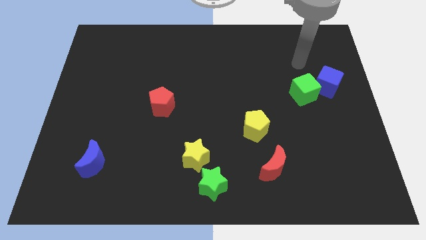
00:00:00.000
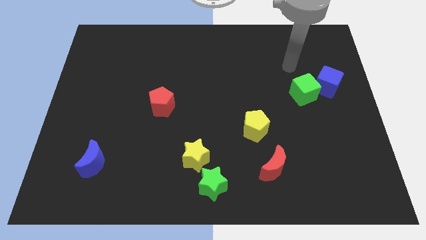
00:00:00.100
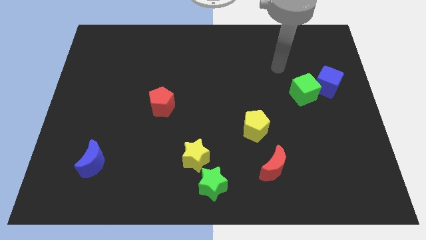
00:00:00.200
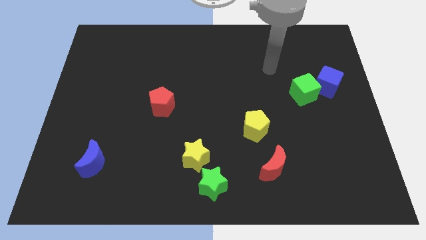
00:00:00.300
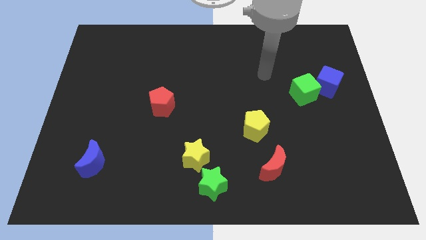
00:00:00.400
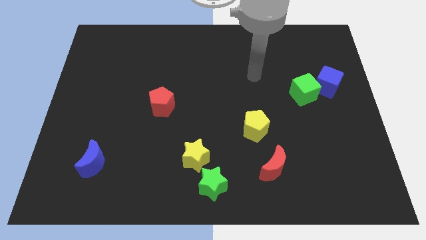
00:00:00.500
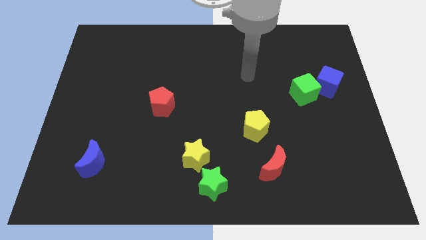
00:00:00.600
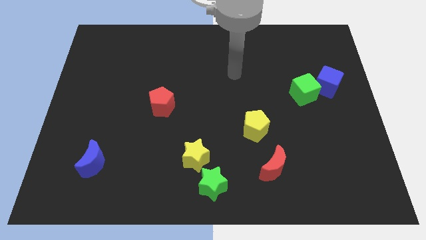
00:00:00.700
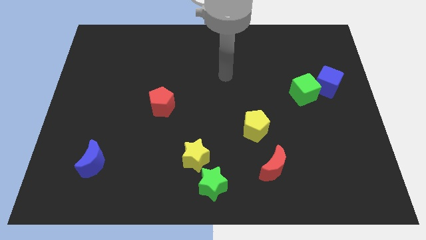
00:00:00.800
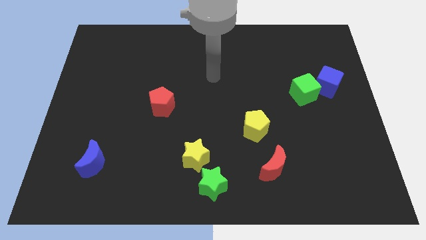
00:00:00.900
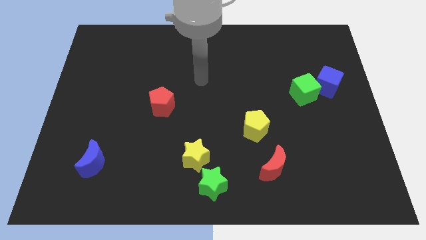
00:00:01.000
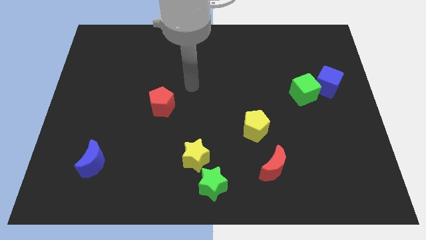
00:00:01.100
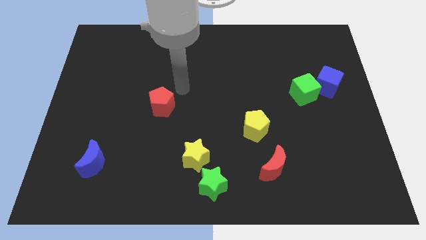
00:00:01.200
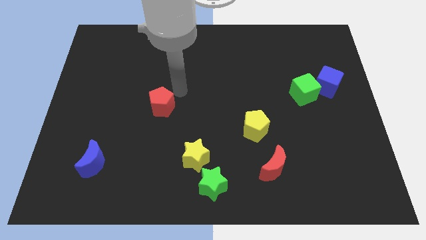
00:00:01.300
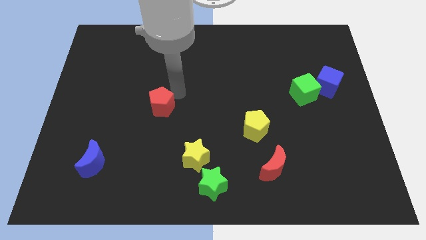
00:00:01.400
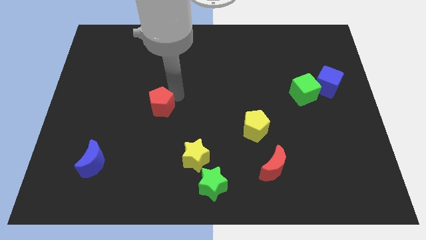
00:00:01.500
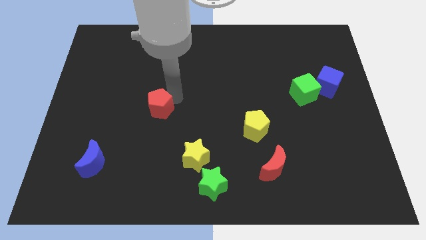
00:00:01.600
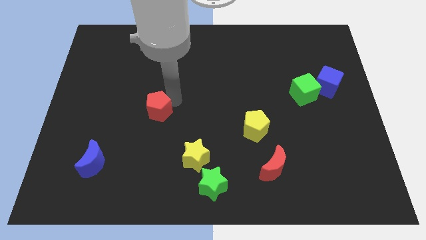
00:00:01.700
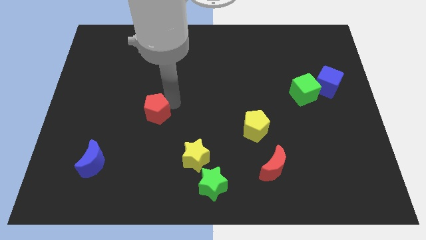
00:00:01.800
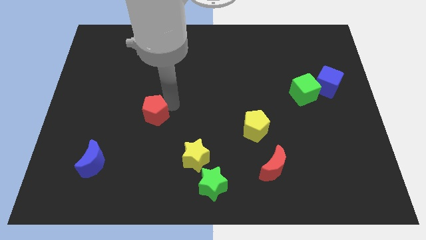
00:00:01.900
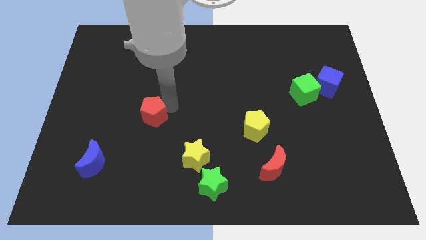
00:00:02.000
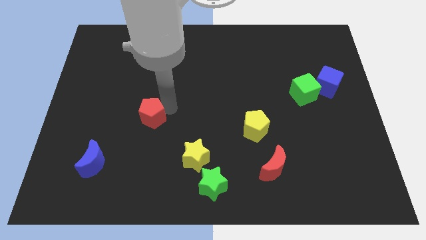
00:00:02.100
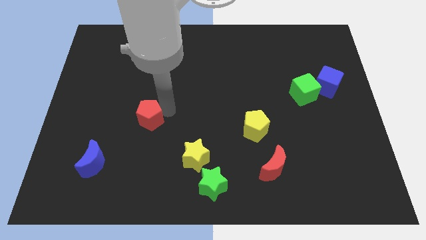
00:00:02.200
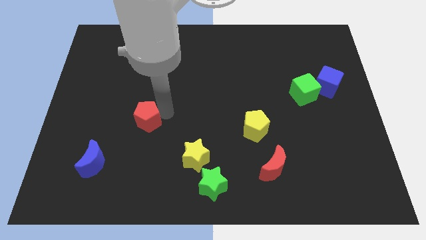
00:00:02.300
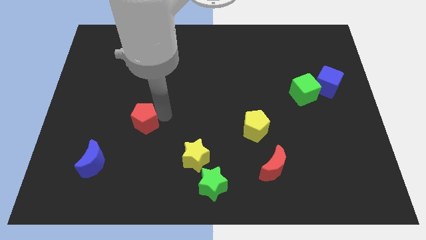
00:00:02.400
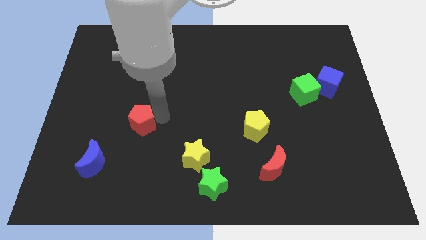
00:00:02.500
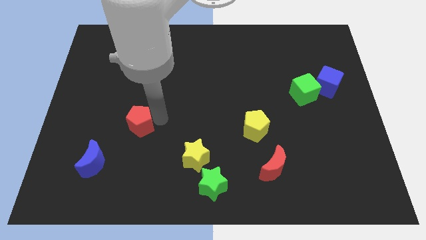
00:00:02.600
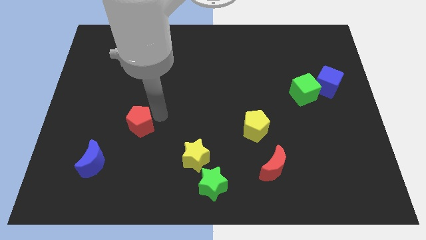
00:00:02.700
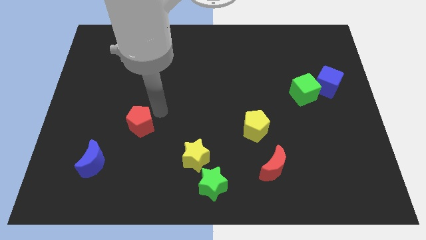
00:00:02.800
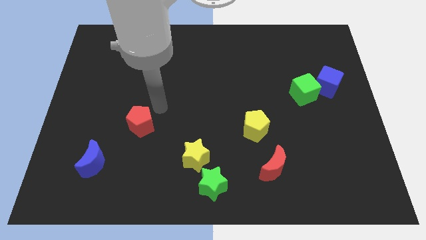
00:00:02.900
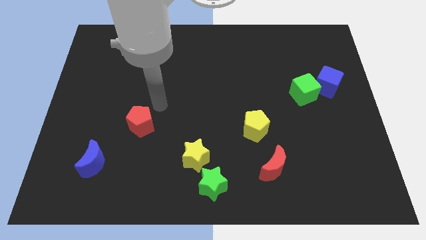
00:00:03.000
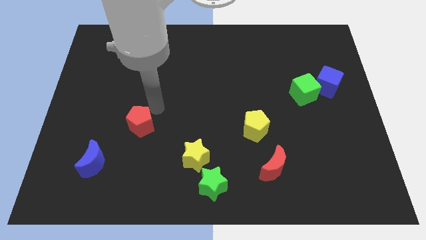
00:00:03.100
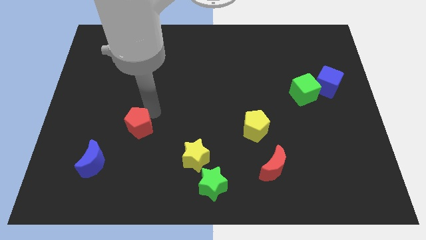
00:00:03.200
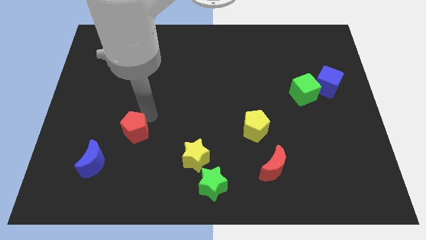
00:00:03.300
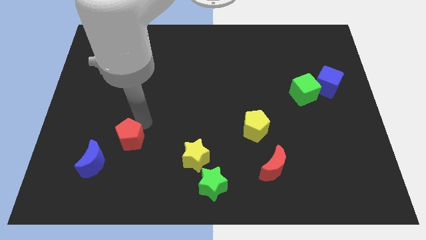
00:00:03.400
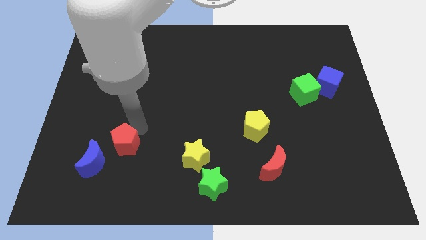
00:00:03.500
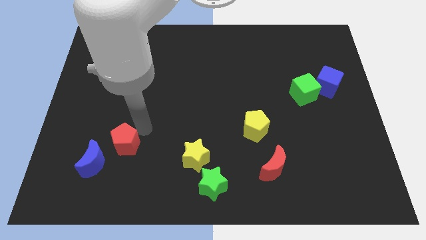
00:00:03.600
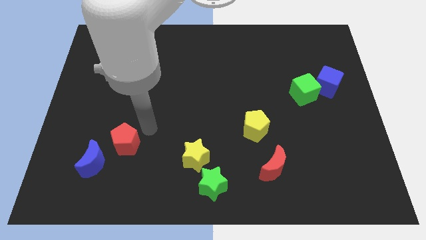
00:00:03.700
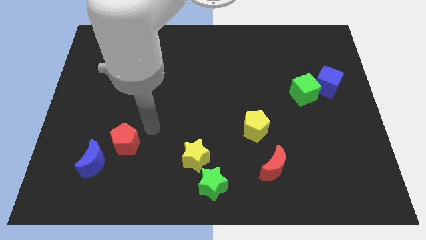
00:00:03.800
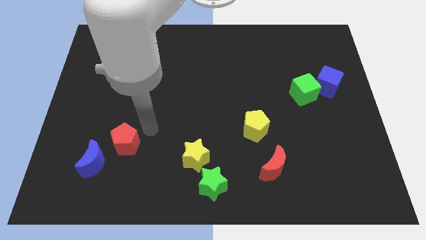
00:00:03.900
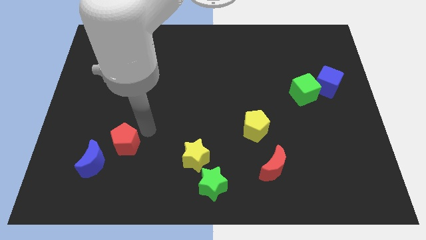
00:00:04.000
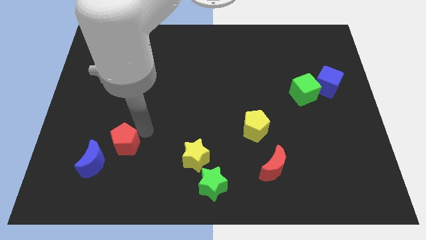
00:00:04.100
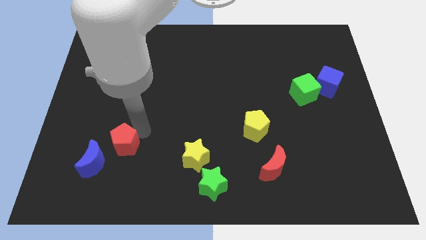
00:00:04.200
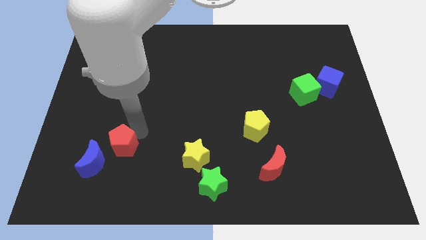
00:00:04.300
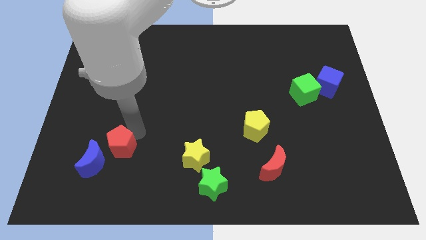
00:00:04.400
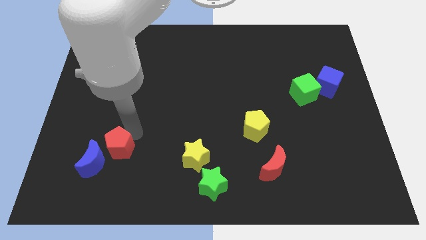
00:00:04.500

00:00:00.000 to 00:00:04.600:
put the red pentagon towards the blue moon

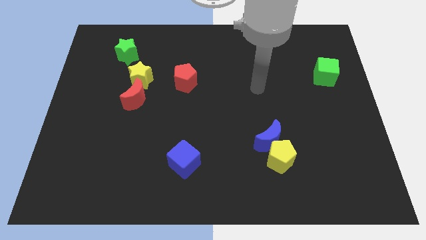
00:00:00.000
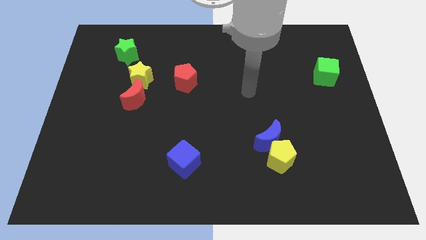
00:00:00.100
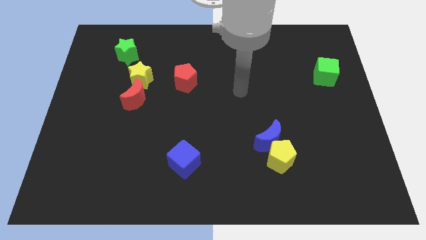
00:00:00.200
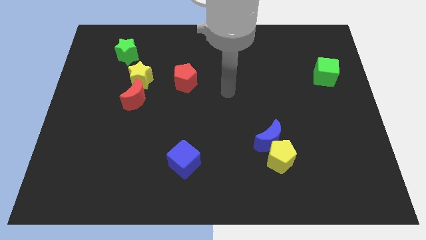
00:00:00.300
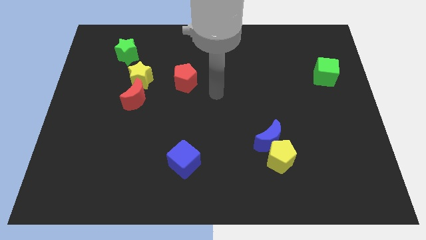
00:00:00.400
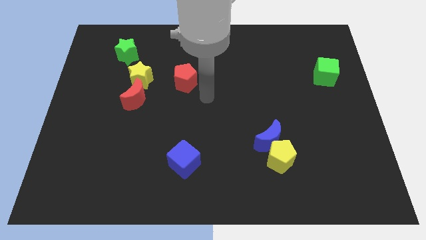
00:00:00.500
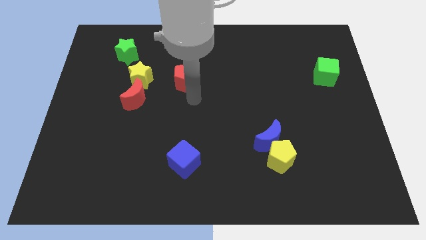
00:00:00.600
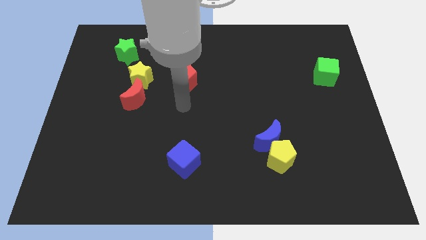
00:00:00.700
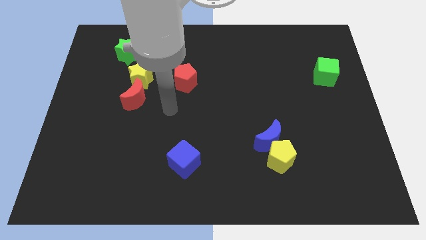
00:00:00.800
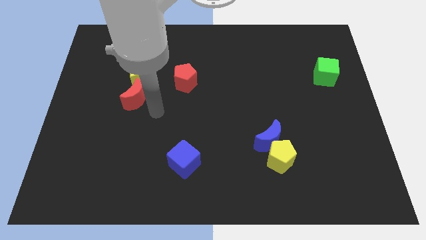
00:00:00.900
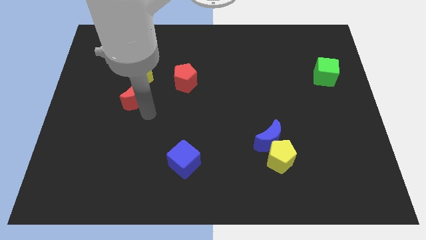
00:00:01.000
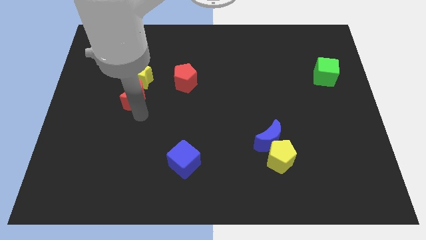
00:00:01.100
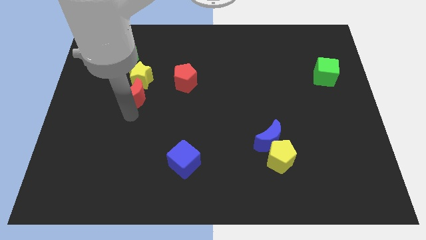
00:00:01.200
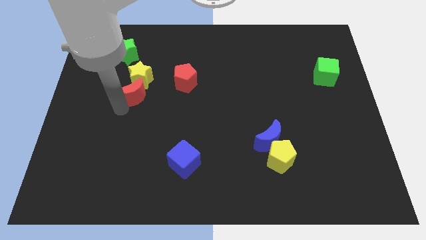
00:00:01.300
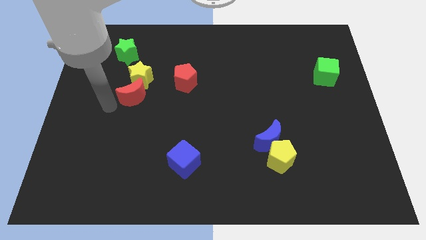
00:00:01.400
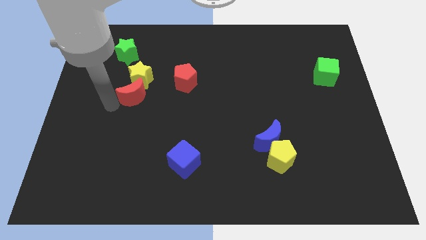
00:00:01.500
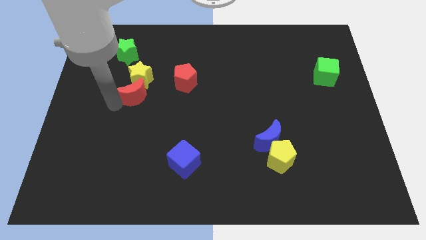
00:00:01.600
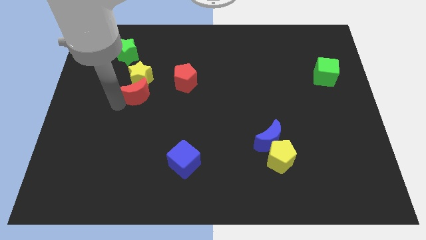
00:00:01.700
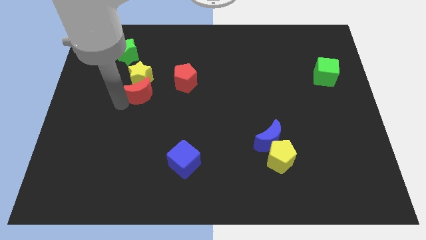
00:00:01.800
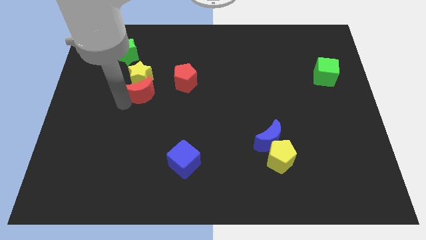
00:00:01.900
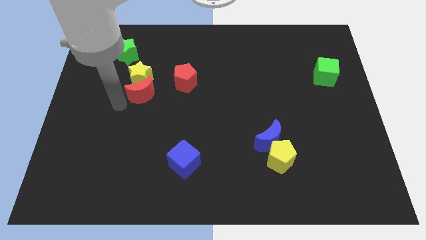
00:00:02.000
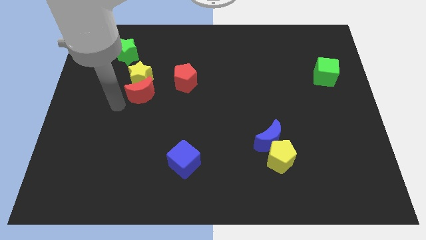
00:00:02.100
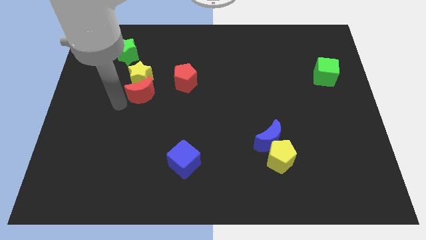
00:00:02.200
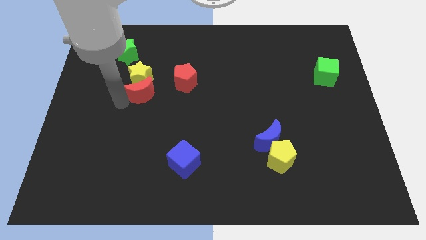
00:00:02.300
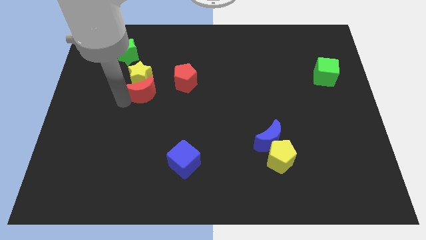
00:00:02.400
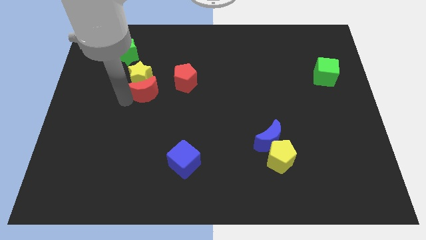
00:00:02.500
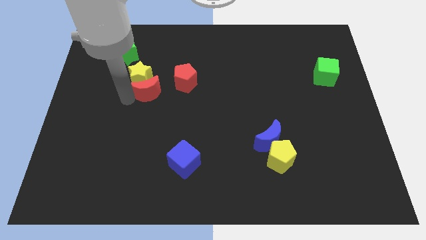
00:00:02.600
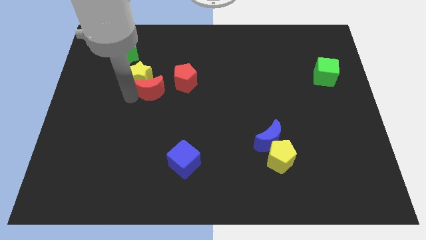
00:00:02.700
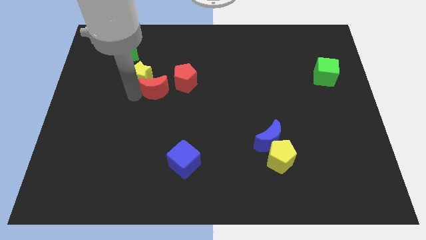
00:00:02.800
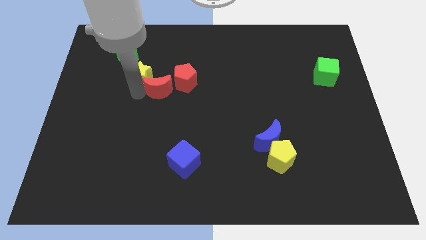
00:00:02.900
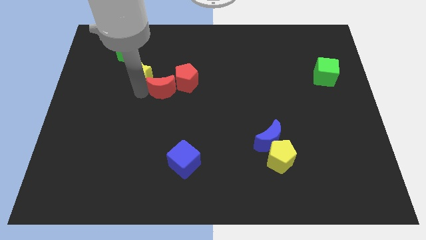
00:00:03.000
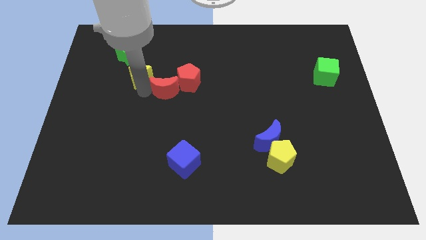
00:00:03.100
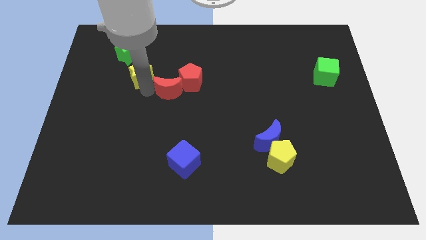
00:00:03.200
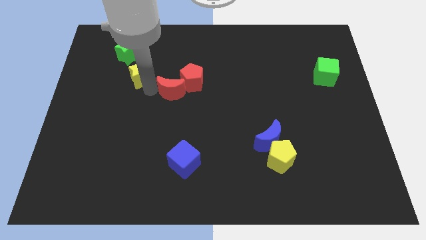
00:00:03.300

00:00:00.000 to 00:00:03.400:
move the red moon towards the red pentagon
